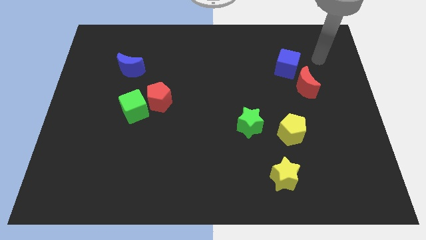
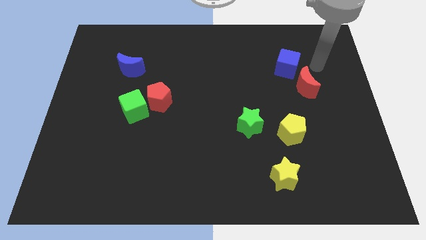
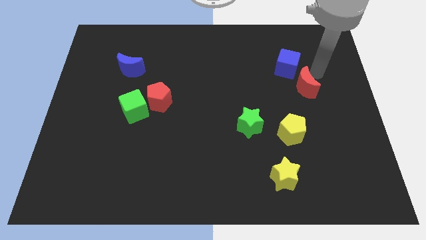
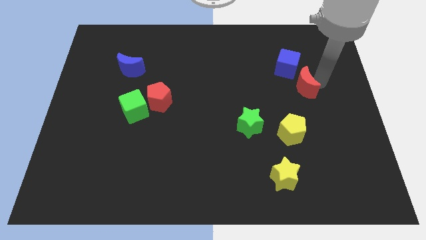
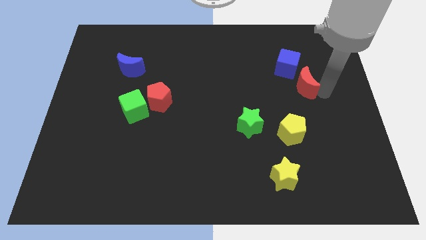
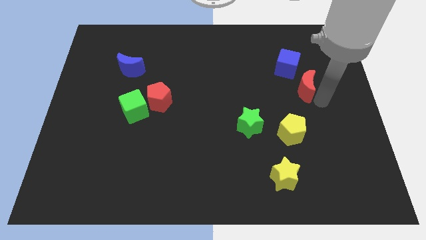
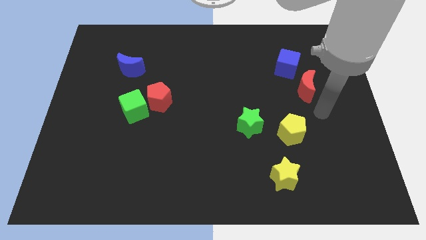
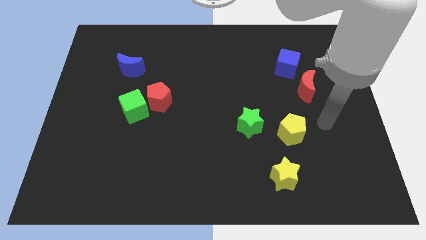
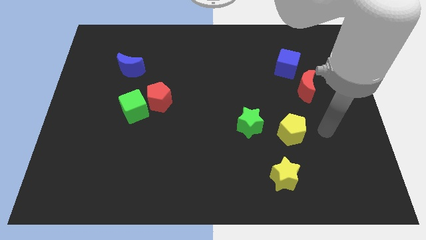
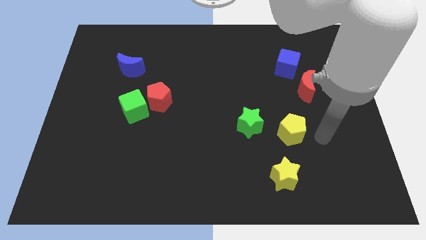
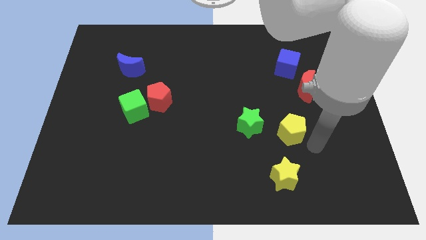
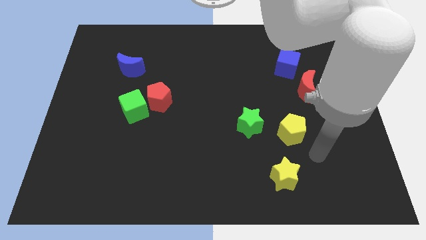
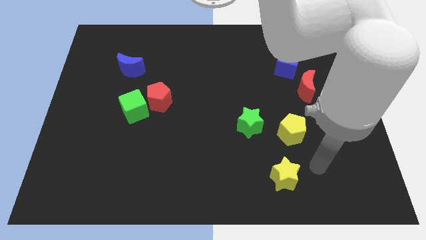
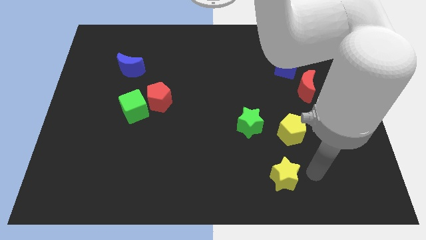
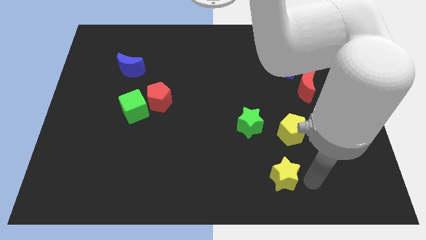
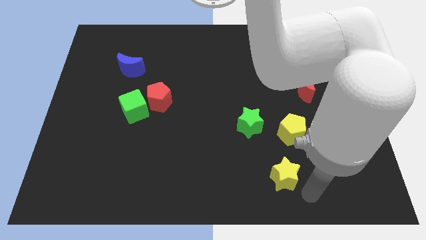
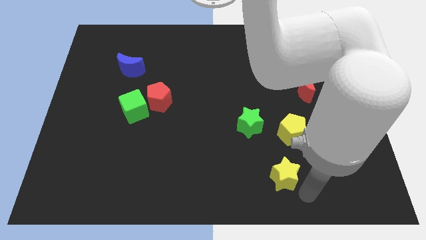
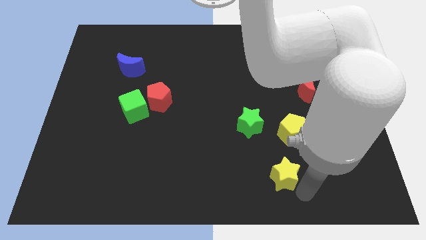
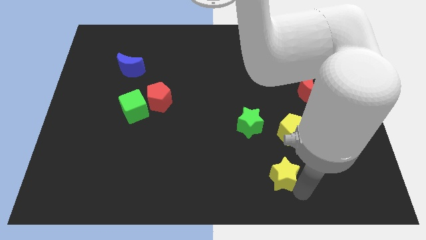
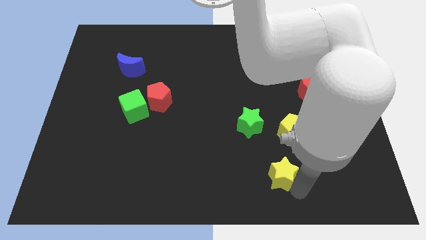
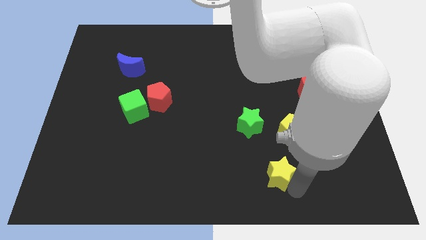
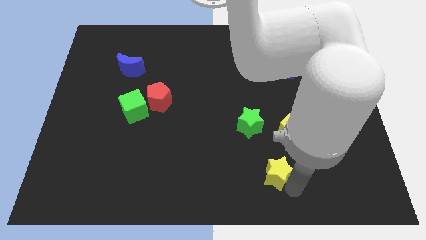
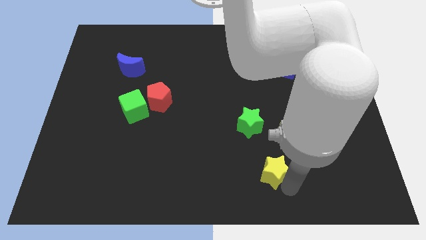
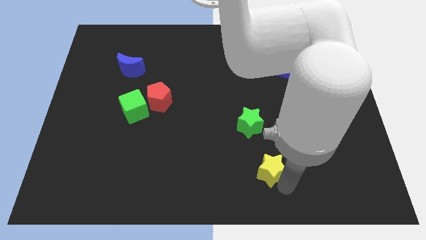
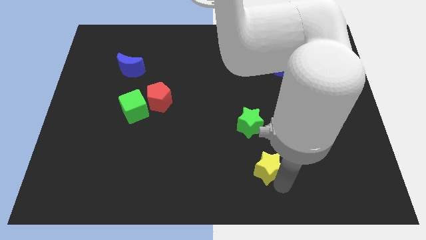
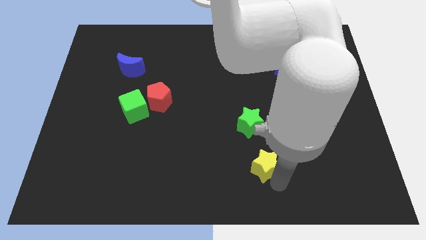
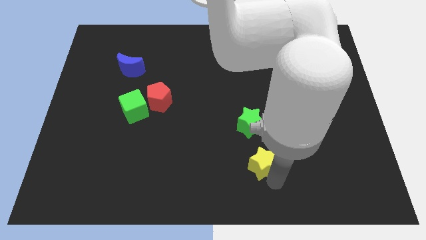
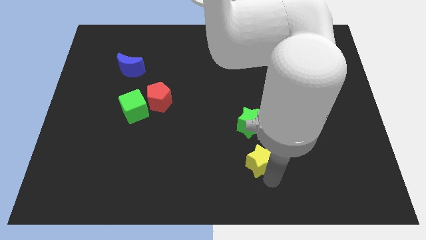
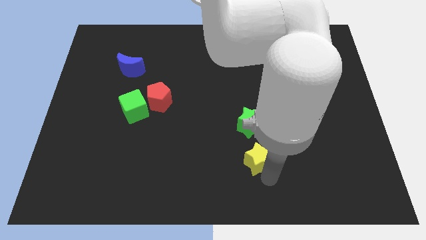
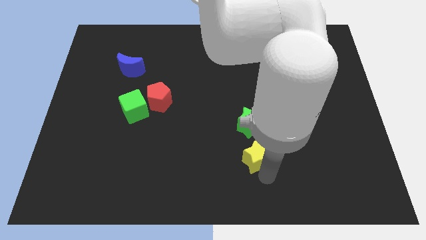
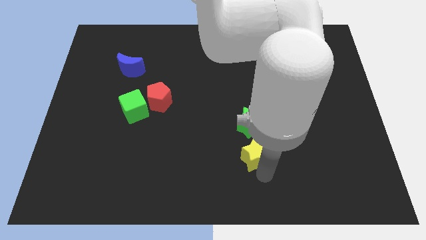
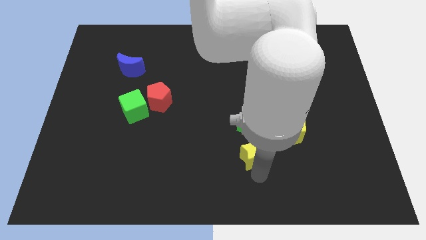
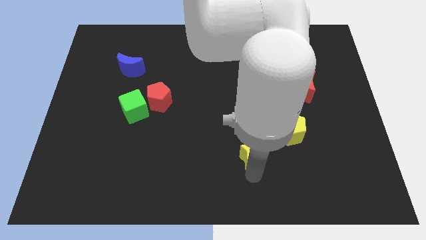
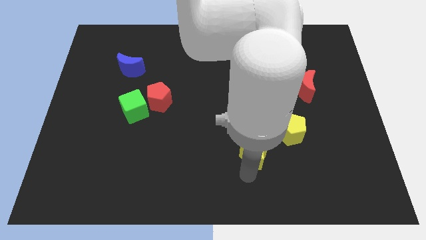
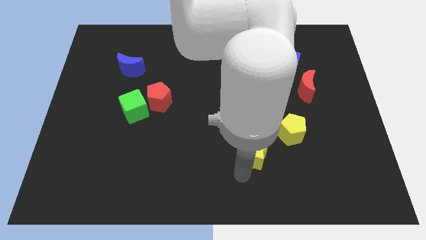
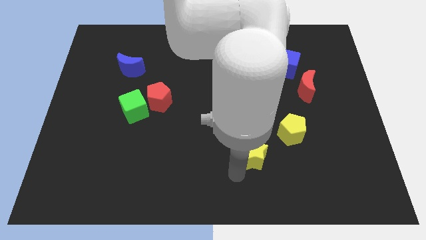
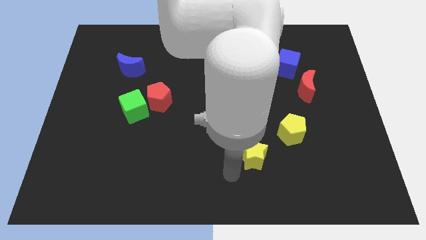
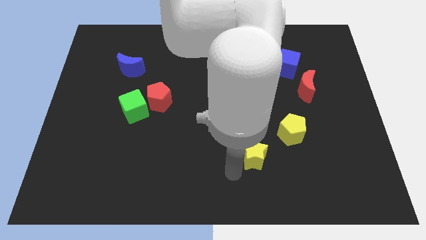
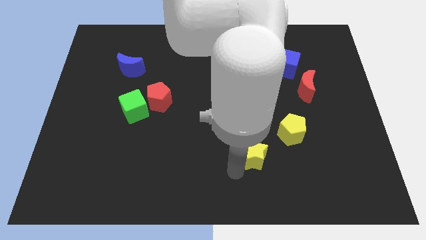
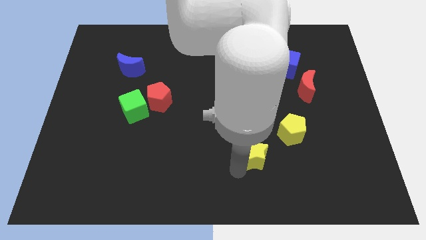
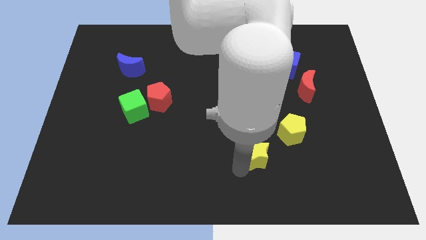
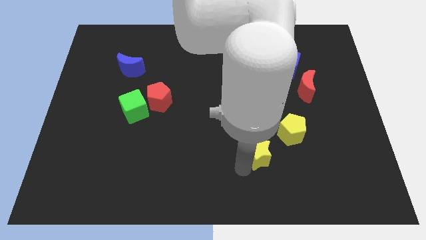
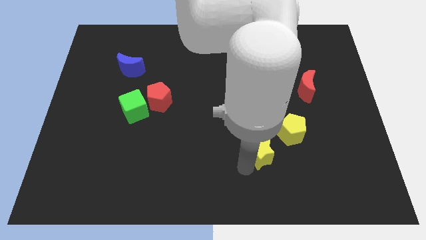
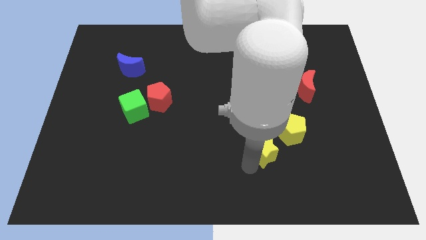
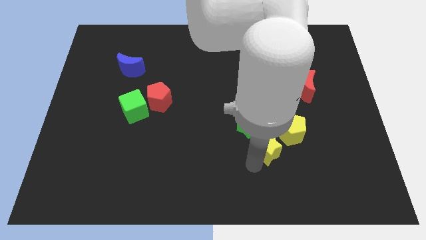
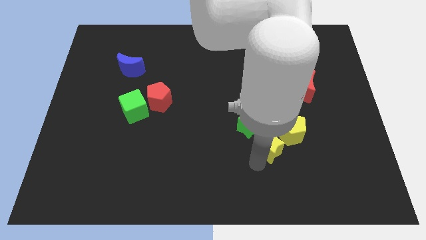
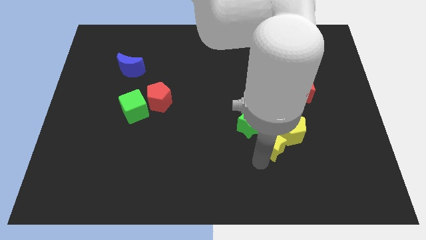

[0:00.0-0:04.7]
push the yellow star a little up

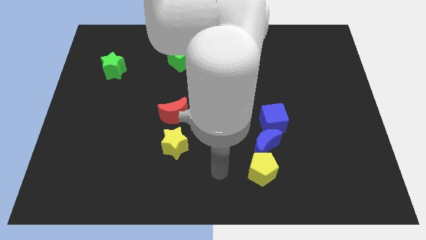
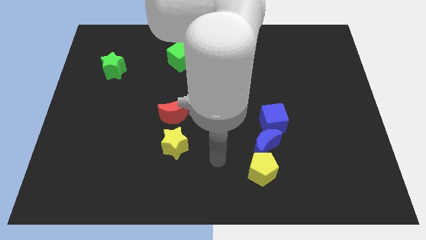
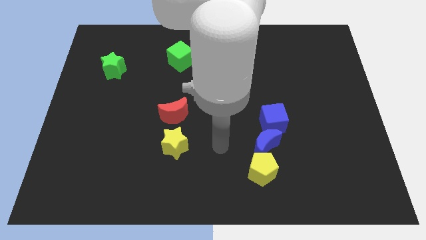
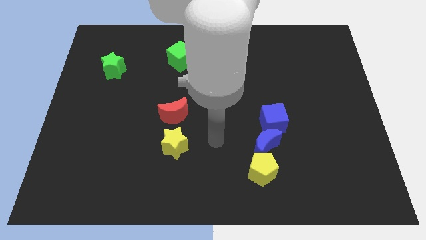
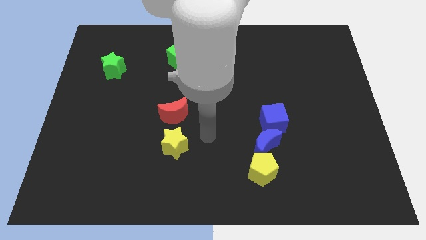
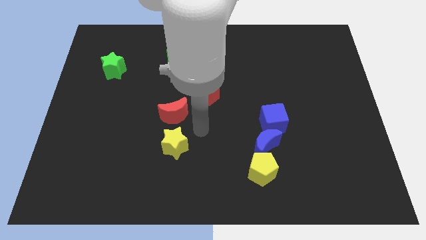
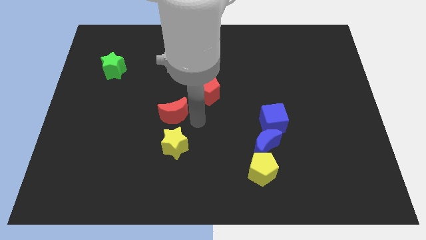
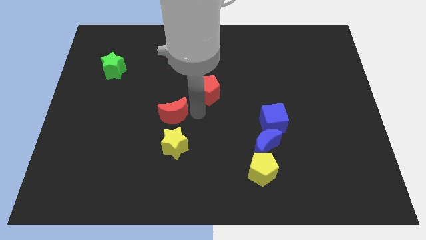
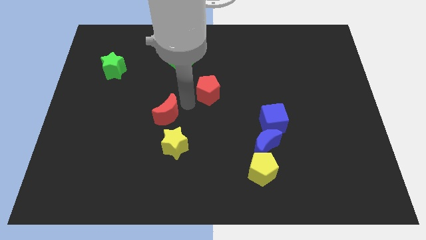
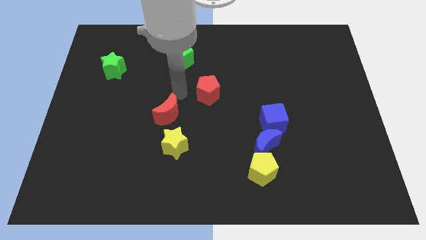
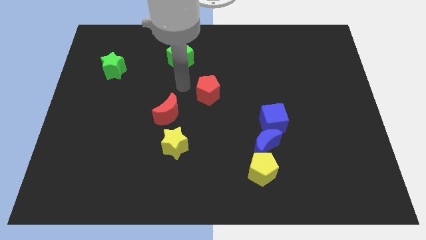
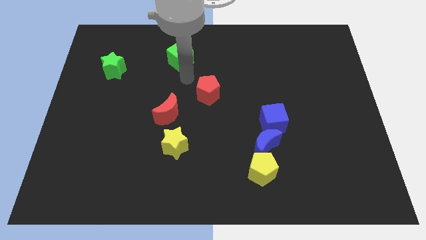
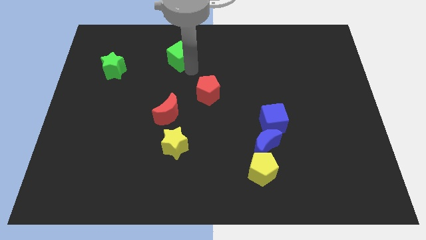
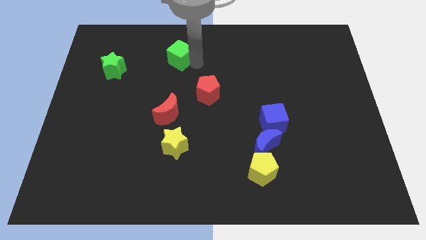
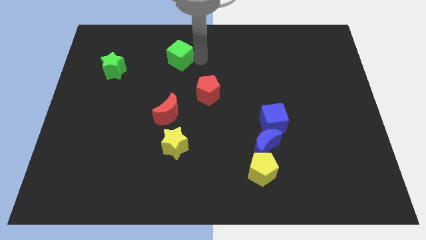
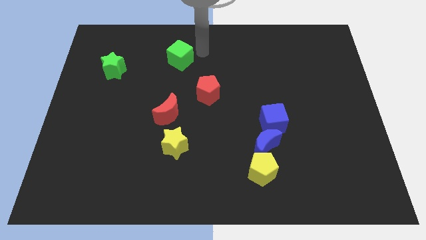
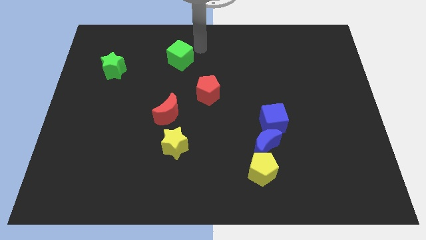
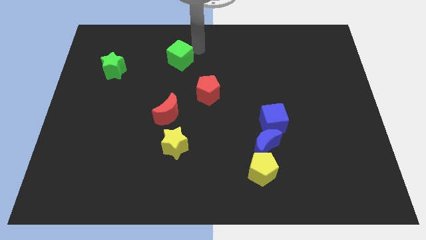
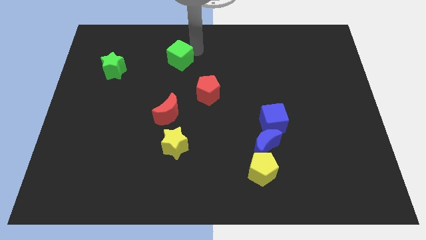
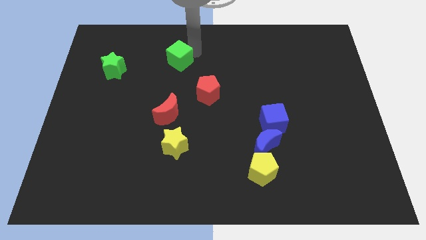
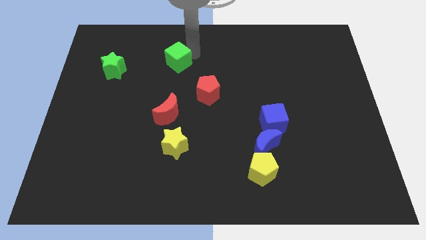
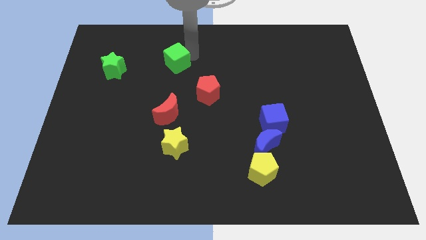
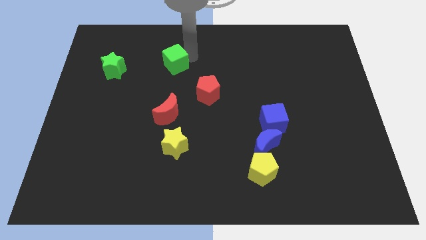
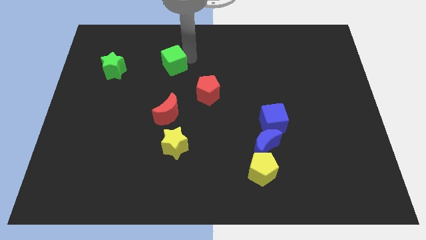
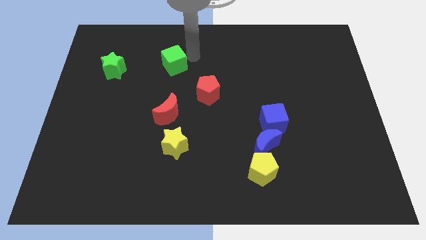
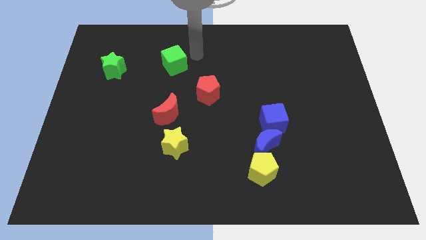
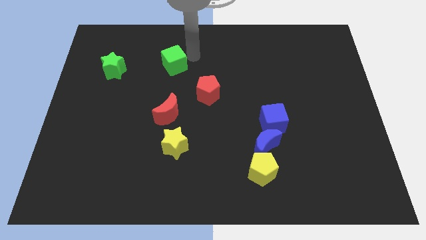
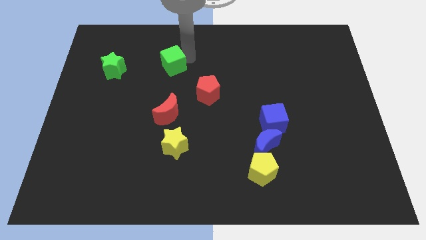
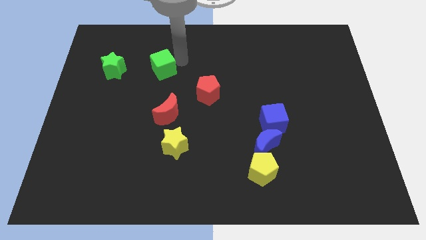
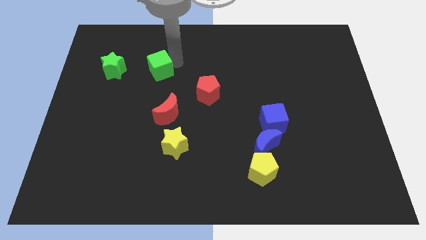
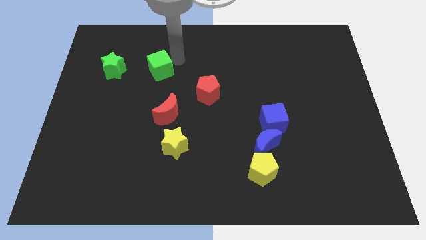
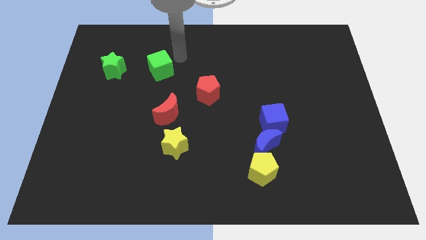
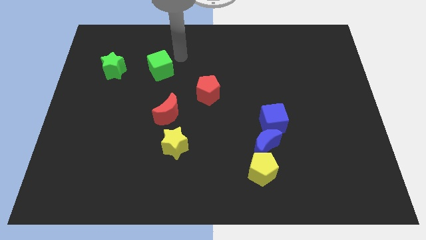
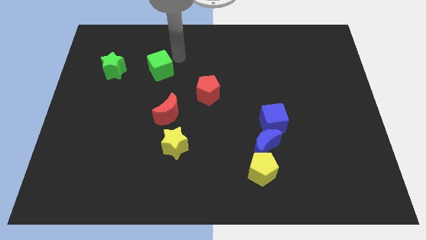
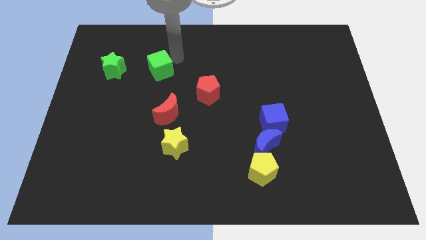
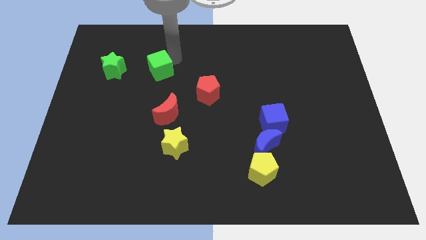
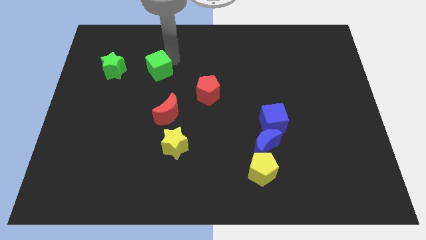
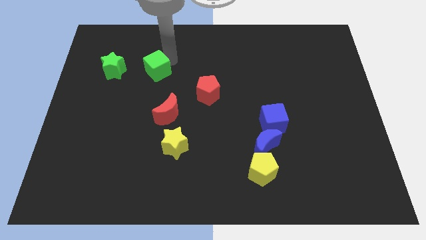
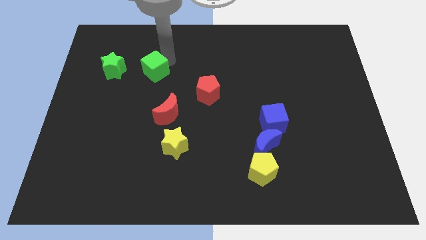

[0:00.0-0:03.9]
slightly move the green cube downwards and then left

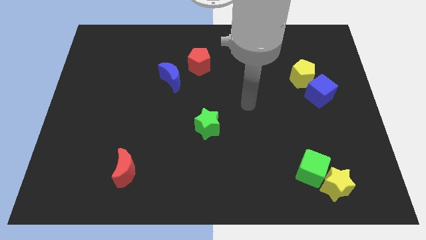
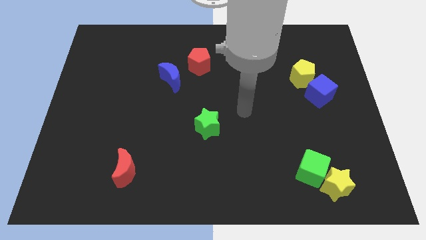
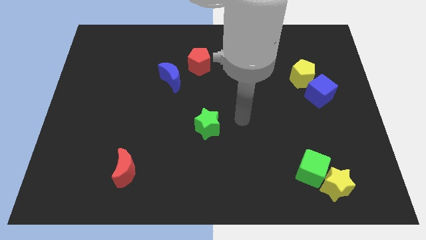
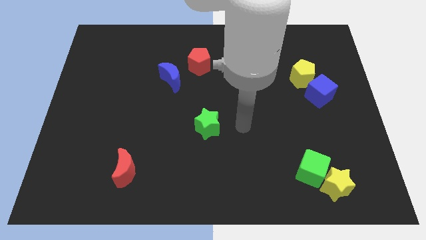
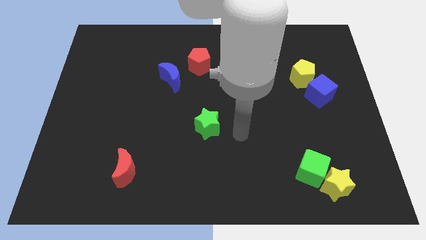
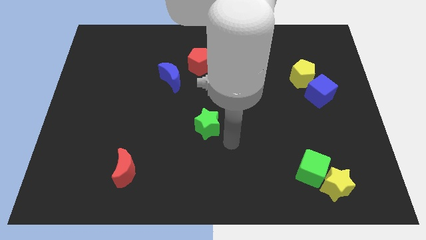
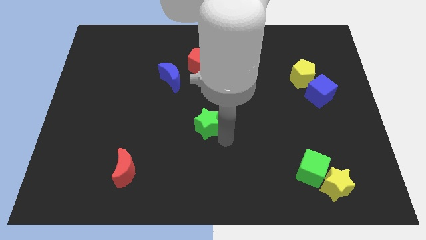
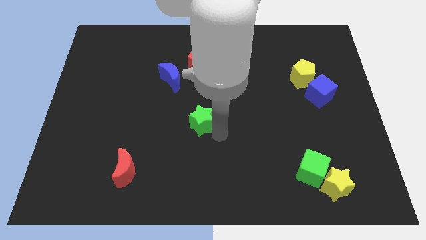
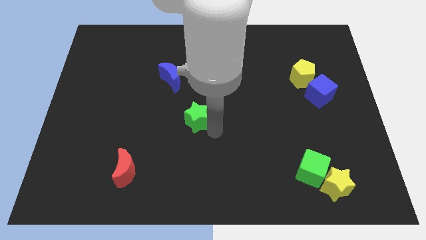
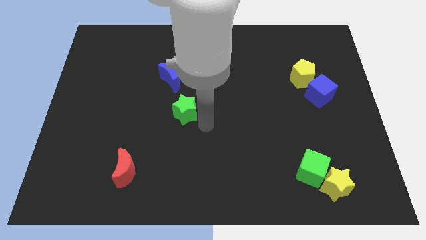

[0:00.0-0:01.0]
move the green star diagonally upwards and to the left somewhat
